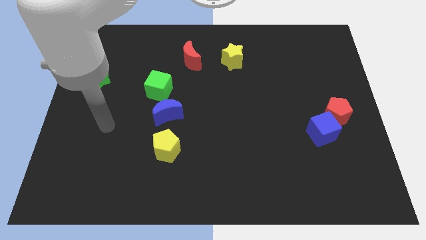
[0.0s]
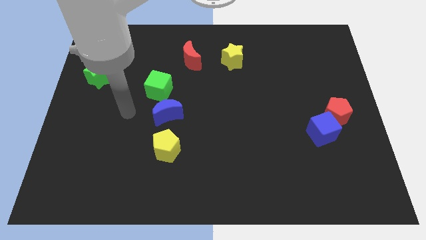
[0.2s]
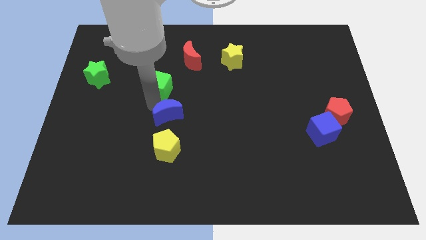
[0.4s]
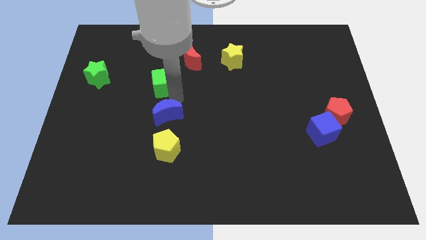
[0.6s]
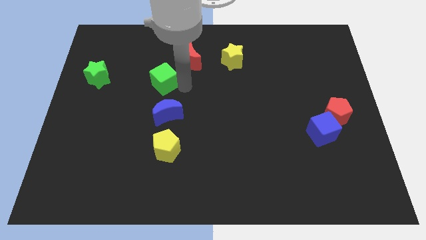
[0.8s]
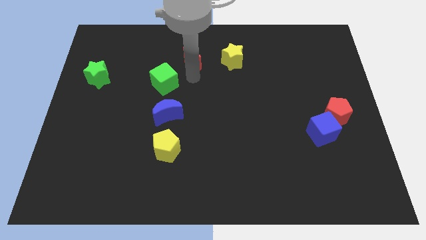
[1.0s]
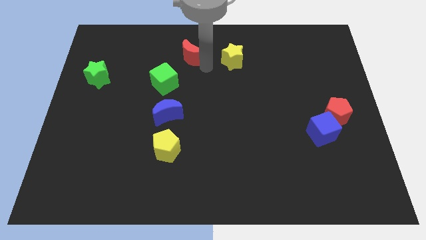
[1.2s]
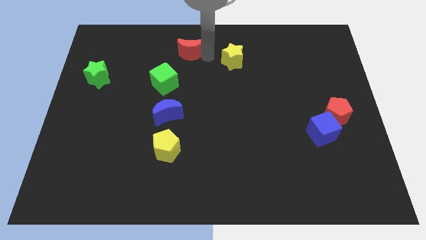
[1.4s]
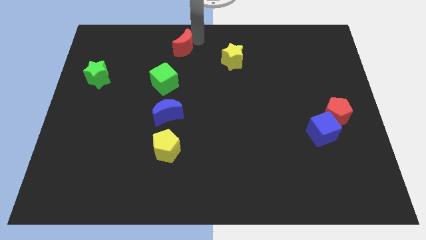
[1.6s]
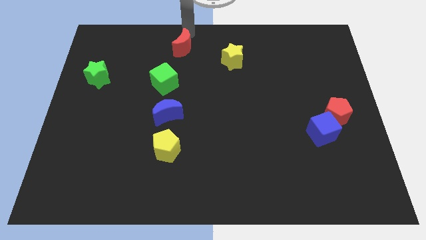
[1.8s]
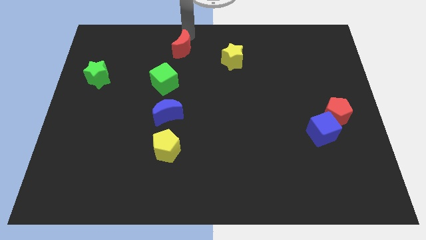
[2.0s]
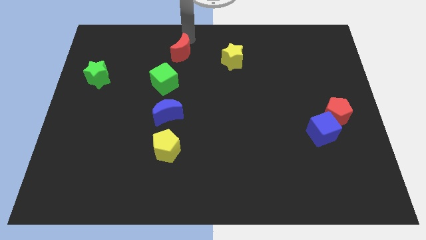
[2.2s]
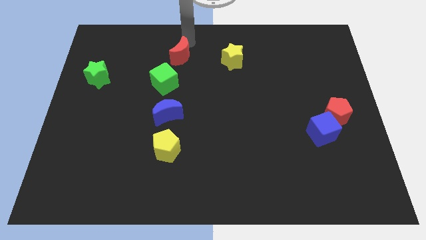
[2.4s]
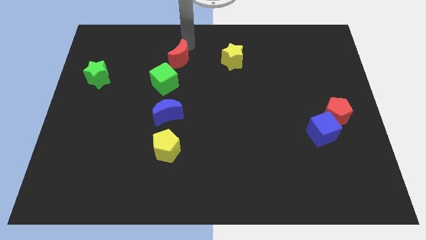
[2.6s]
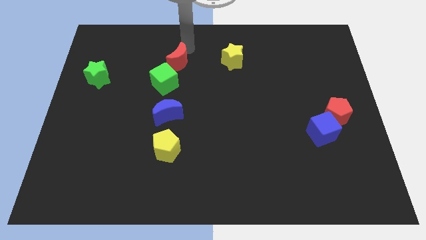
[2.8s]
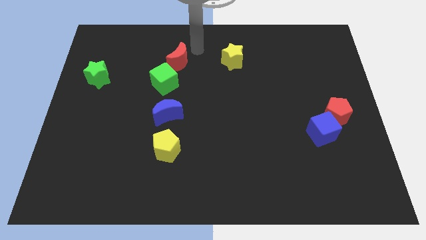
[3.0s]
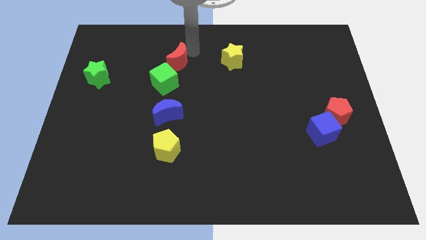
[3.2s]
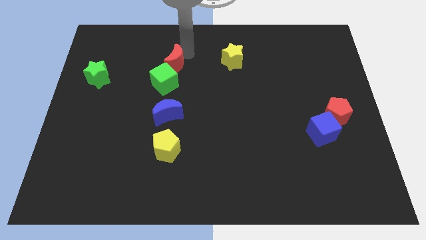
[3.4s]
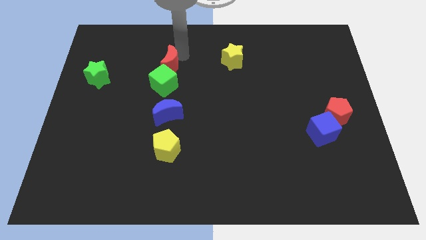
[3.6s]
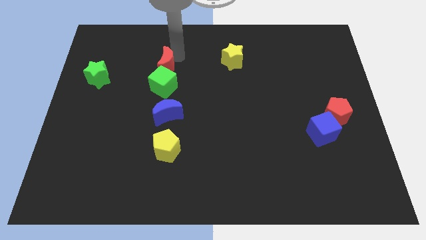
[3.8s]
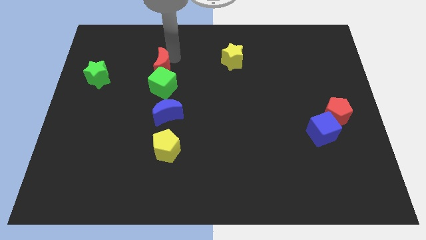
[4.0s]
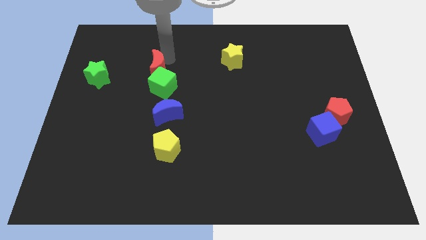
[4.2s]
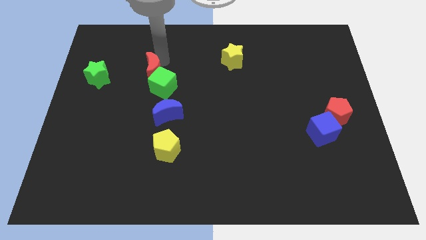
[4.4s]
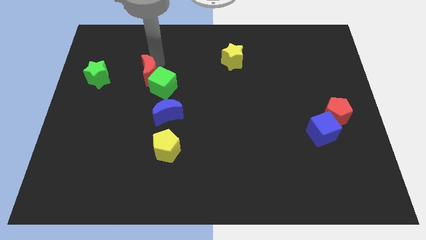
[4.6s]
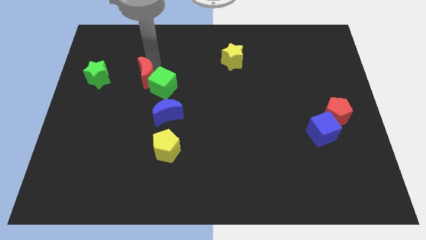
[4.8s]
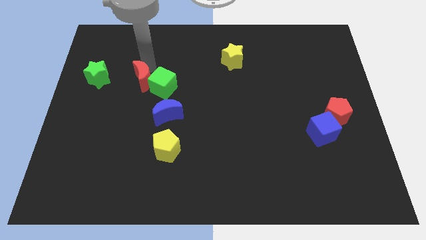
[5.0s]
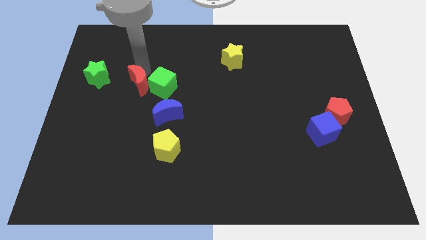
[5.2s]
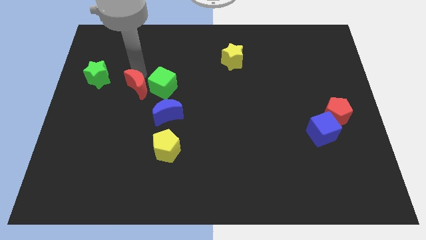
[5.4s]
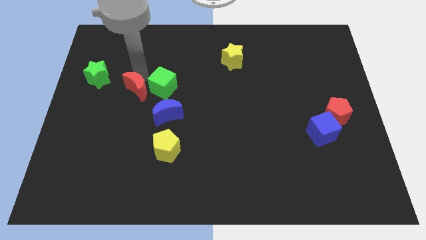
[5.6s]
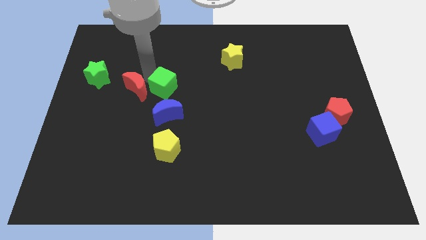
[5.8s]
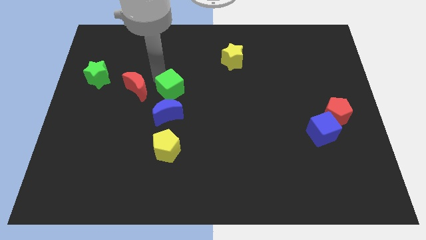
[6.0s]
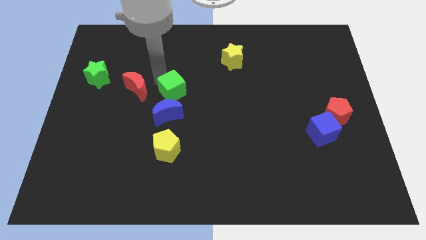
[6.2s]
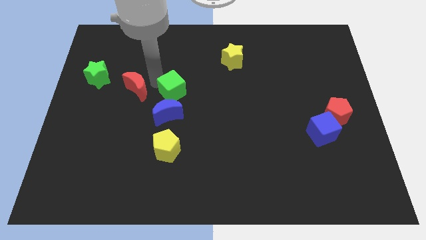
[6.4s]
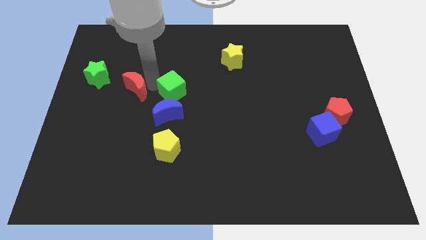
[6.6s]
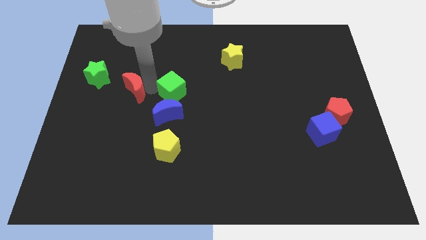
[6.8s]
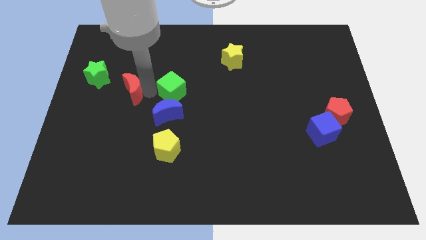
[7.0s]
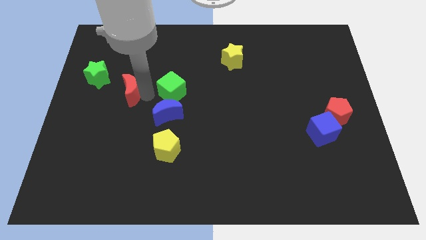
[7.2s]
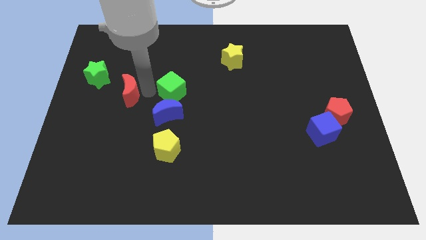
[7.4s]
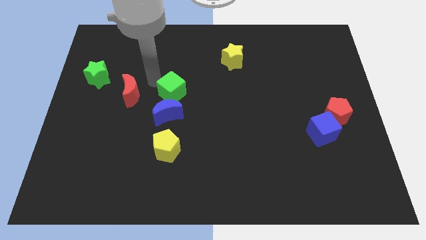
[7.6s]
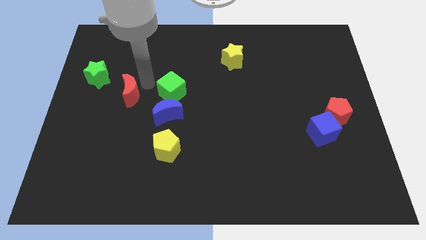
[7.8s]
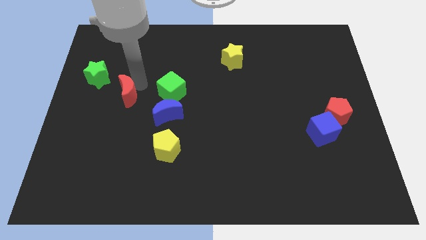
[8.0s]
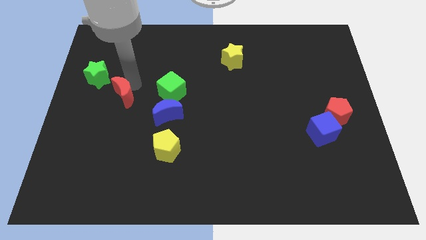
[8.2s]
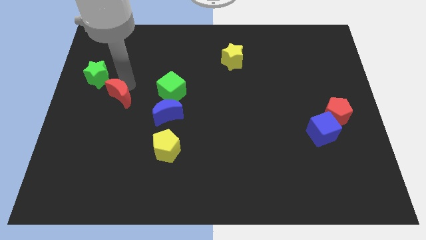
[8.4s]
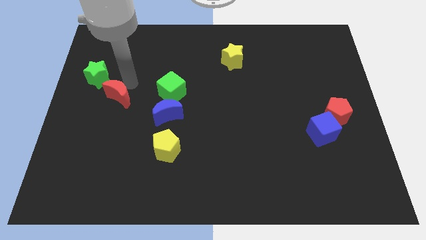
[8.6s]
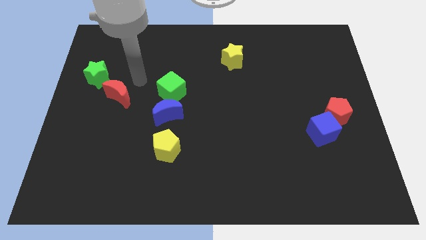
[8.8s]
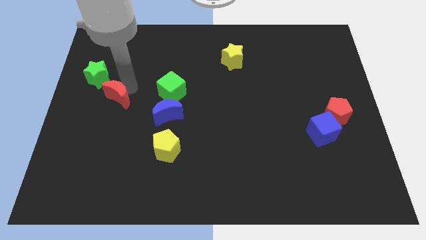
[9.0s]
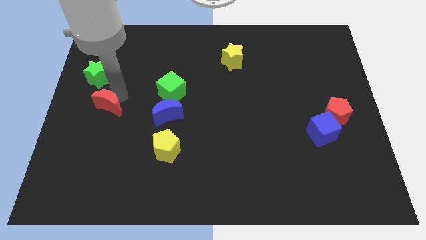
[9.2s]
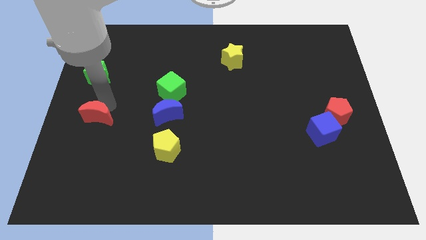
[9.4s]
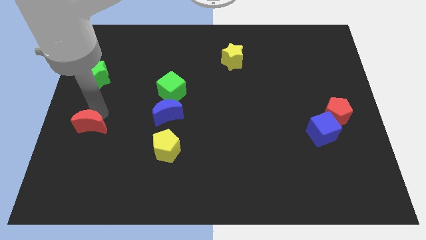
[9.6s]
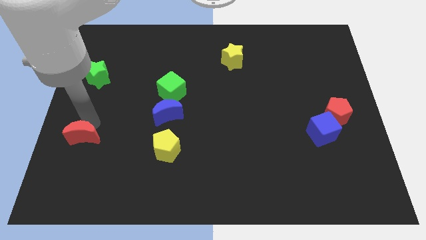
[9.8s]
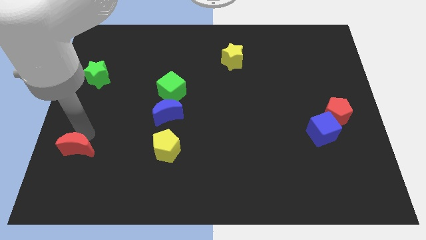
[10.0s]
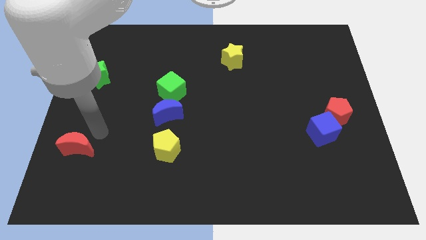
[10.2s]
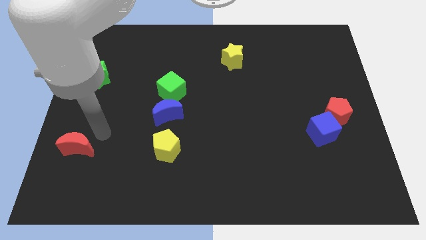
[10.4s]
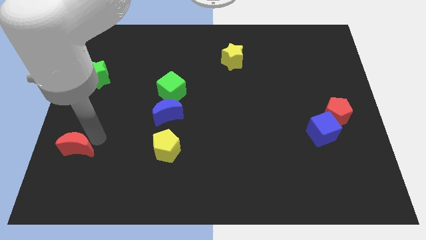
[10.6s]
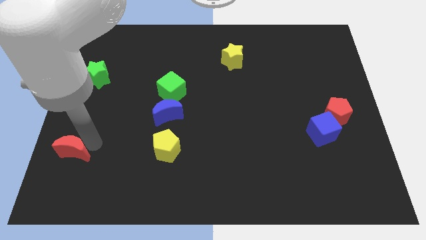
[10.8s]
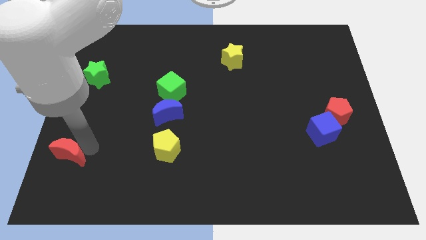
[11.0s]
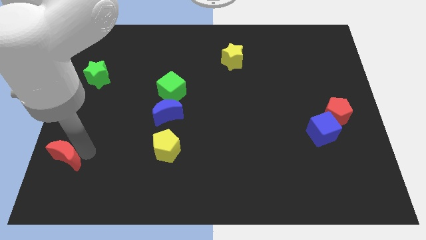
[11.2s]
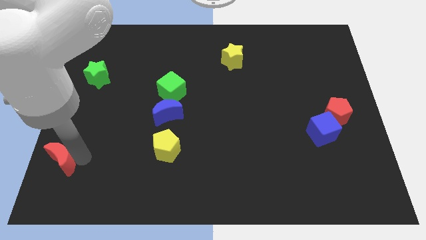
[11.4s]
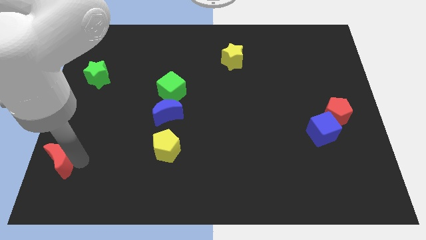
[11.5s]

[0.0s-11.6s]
push the red moon to the bottom left

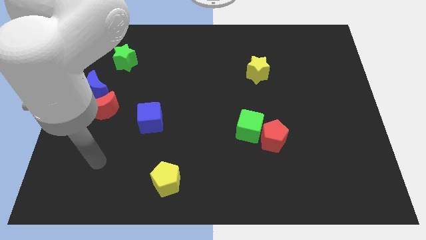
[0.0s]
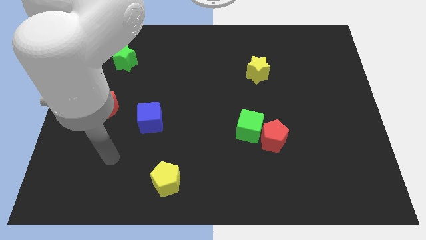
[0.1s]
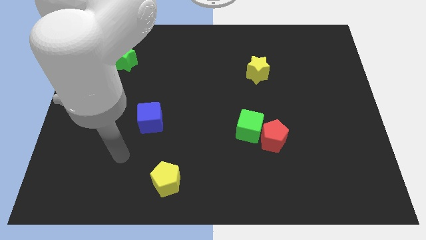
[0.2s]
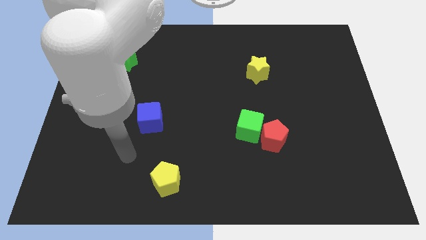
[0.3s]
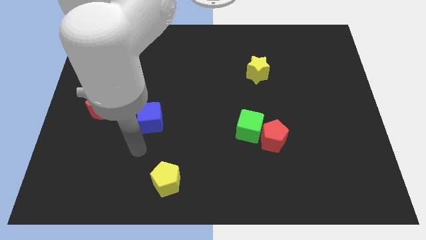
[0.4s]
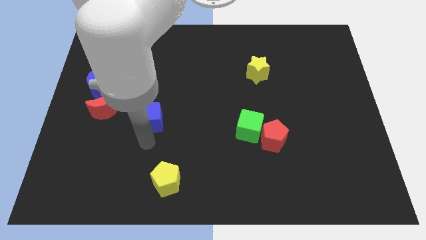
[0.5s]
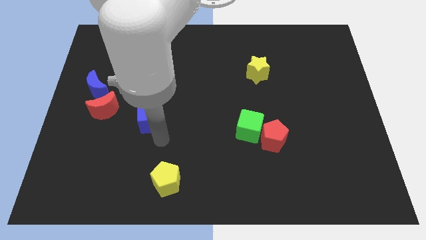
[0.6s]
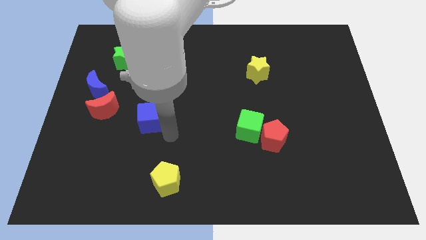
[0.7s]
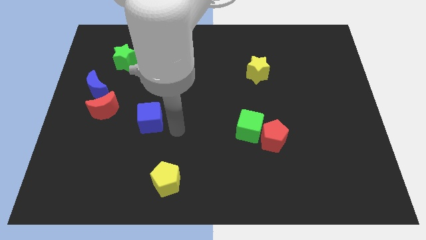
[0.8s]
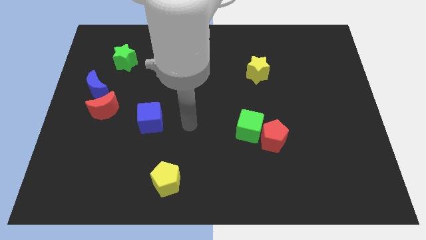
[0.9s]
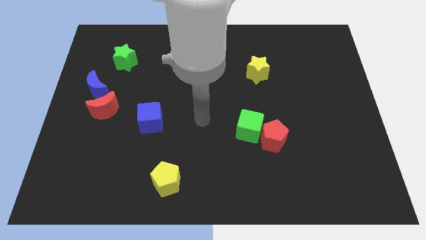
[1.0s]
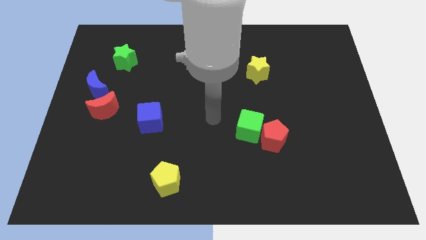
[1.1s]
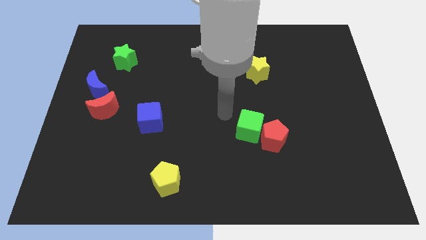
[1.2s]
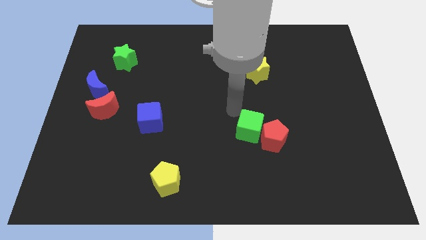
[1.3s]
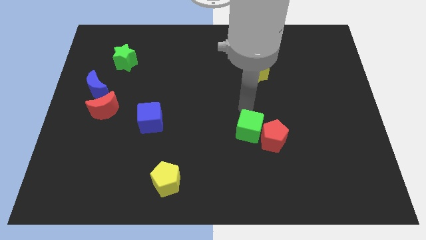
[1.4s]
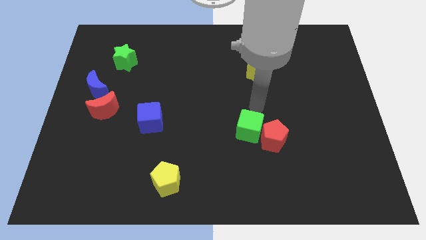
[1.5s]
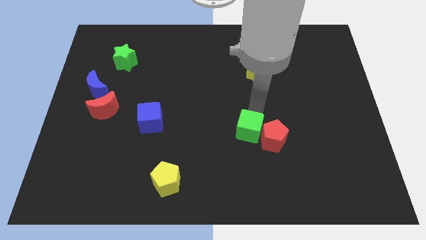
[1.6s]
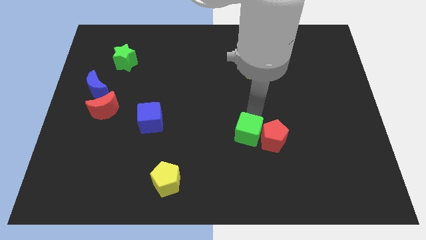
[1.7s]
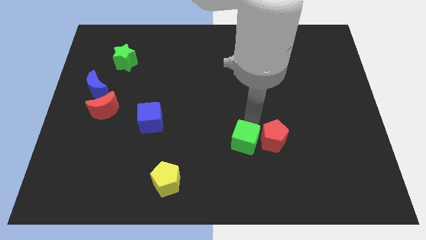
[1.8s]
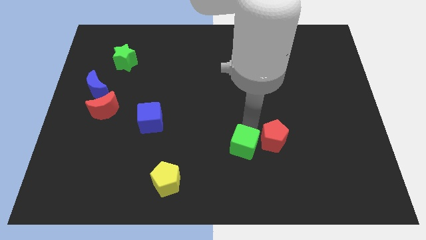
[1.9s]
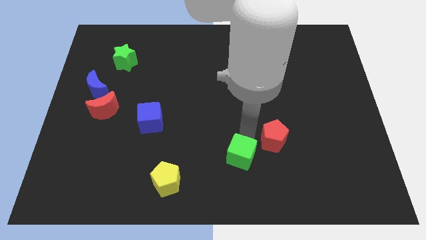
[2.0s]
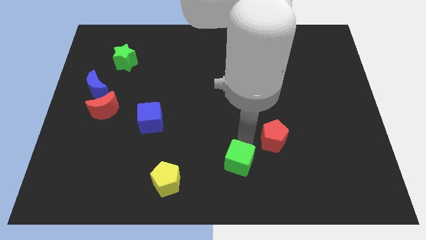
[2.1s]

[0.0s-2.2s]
push the green cube to the bottom
